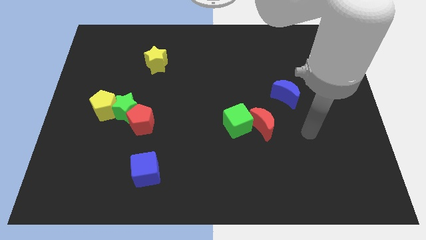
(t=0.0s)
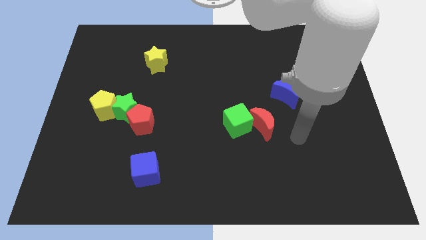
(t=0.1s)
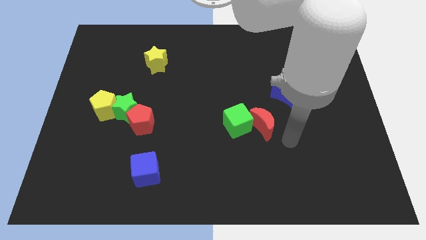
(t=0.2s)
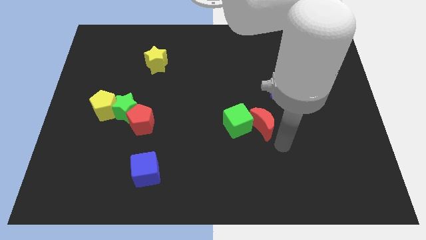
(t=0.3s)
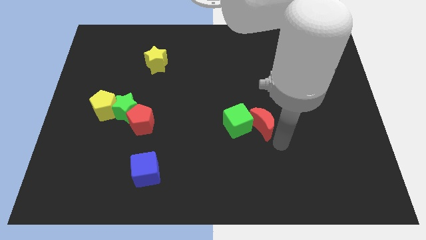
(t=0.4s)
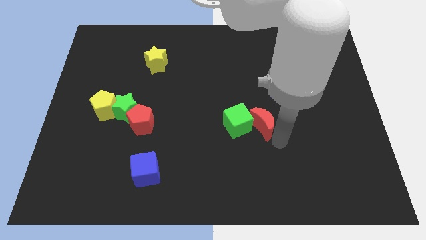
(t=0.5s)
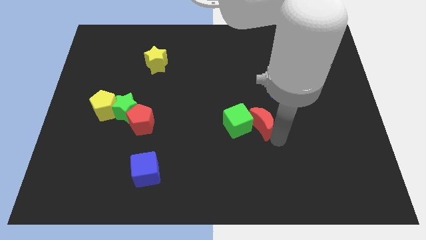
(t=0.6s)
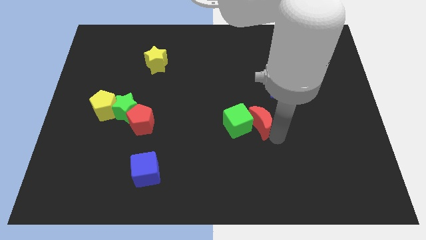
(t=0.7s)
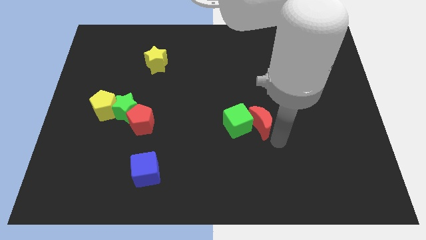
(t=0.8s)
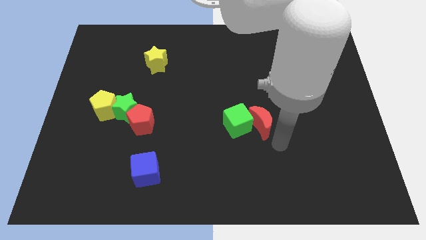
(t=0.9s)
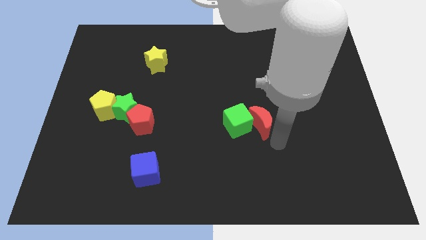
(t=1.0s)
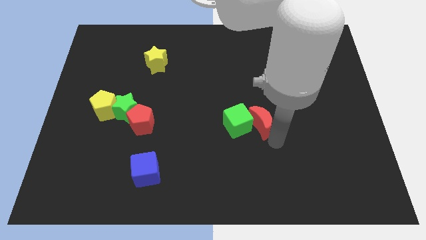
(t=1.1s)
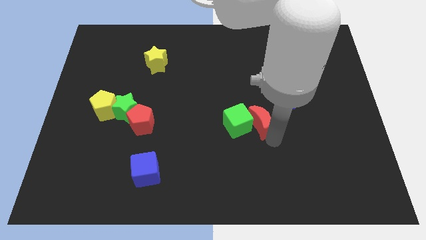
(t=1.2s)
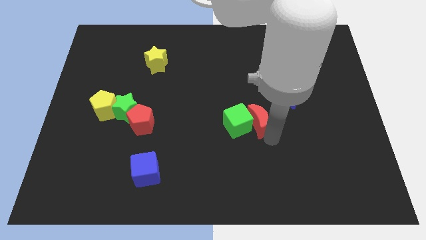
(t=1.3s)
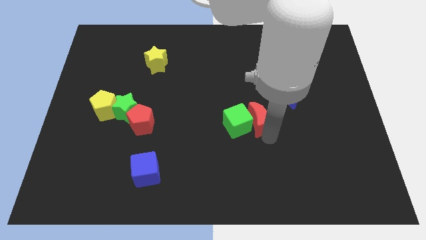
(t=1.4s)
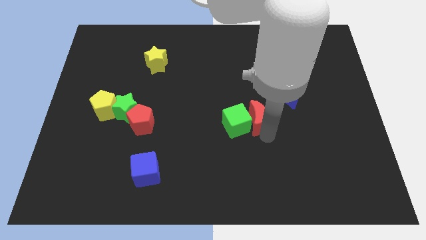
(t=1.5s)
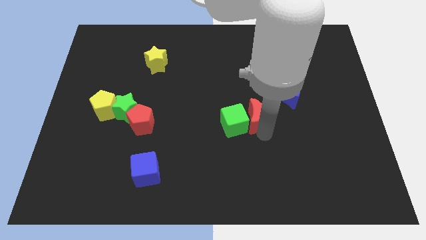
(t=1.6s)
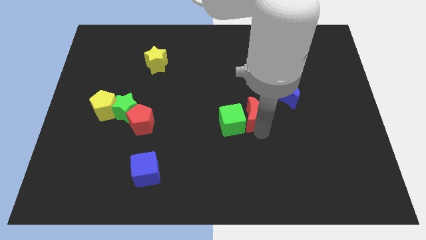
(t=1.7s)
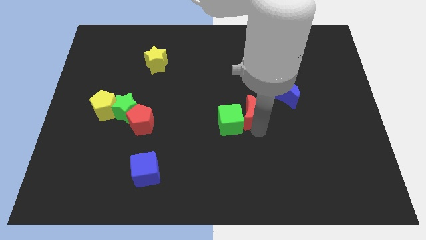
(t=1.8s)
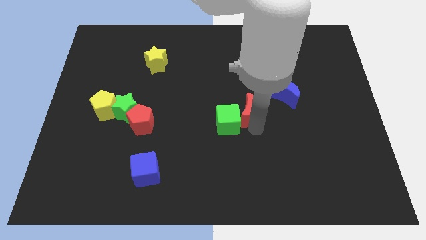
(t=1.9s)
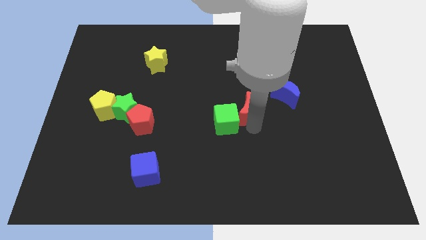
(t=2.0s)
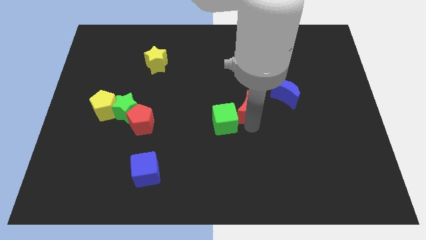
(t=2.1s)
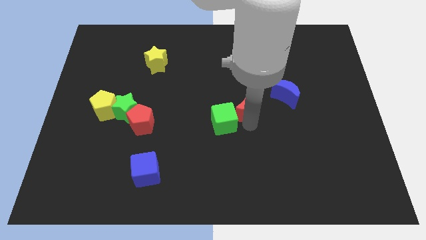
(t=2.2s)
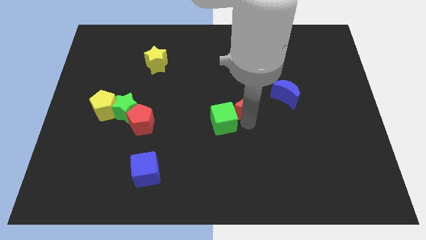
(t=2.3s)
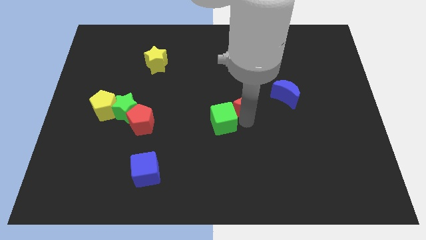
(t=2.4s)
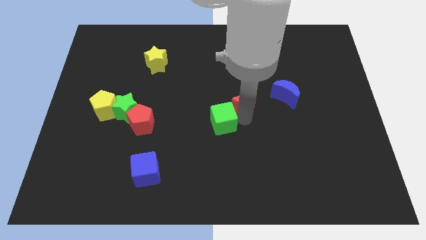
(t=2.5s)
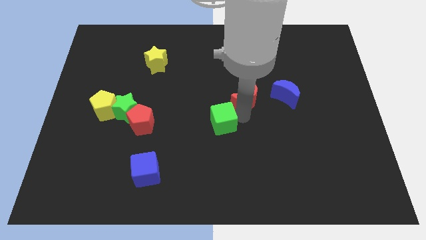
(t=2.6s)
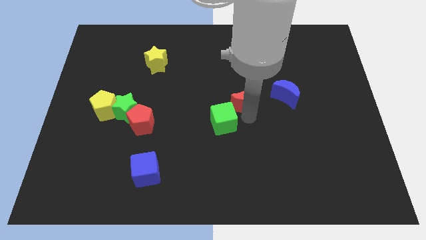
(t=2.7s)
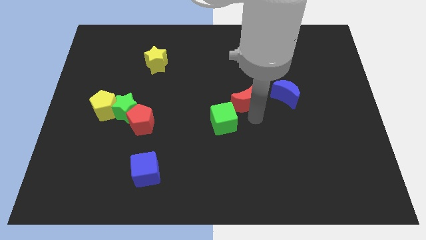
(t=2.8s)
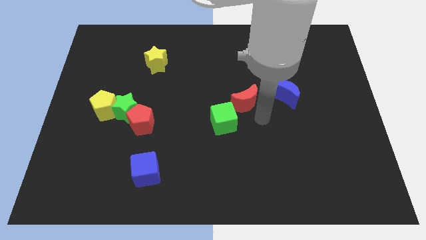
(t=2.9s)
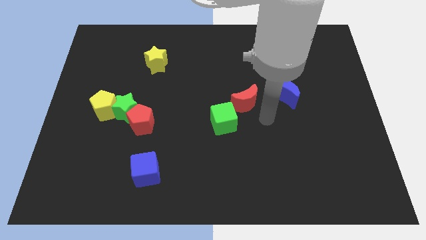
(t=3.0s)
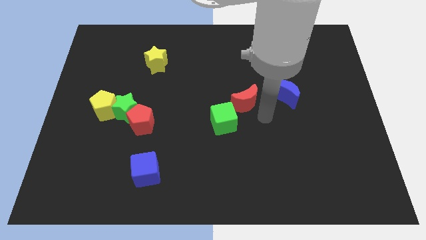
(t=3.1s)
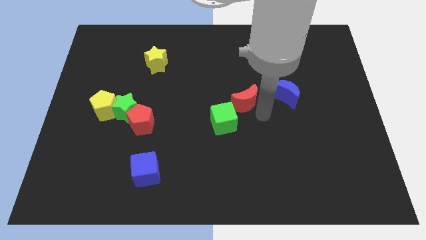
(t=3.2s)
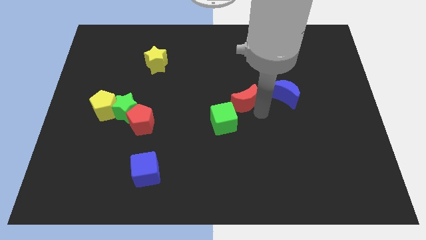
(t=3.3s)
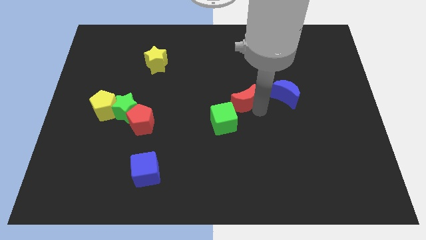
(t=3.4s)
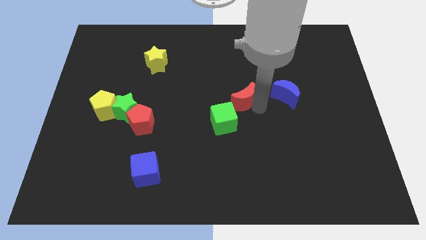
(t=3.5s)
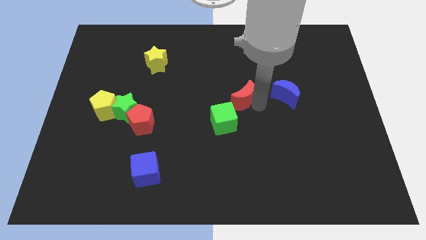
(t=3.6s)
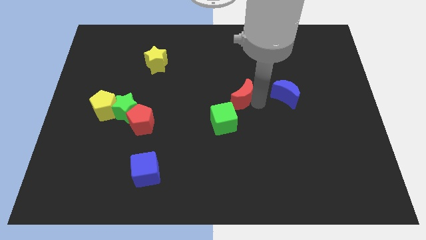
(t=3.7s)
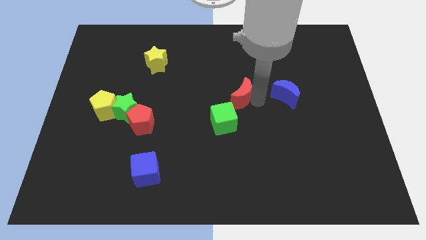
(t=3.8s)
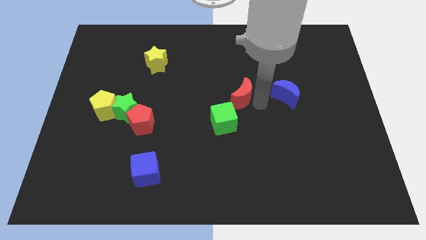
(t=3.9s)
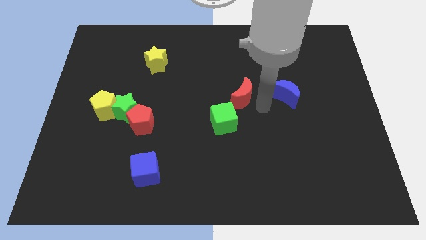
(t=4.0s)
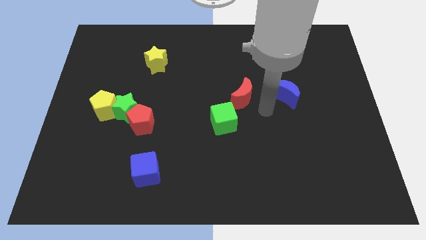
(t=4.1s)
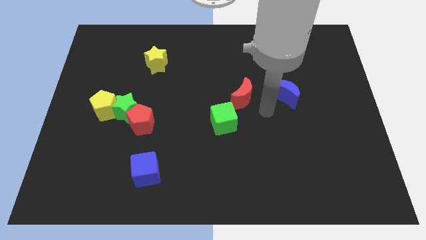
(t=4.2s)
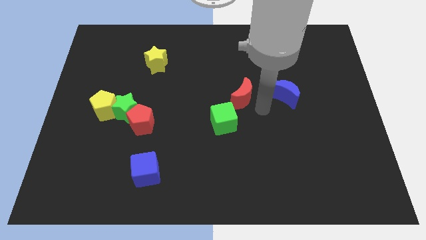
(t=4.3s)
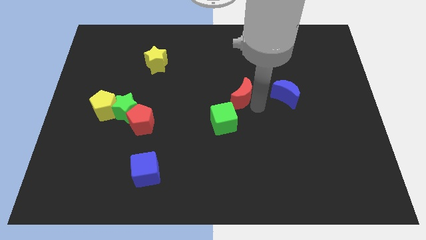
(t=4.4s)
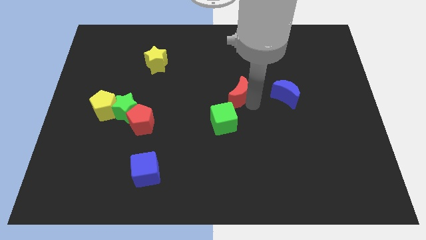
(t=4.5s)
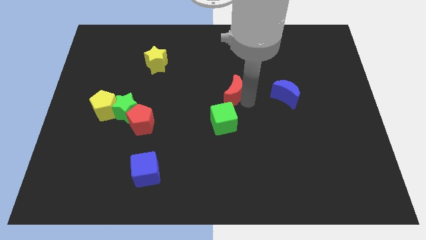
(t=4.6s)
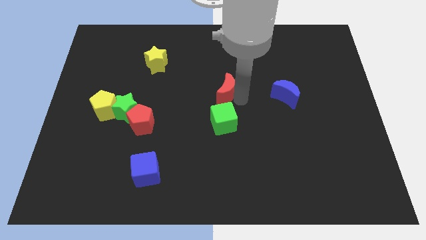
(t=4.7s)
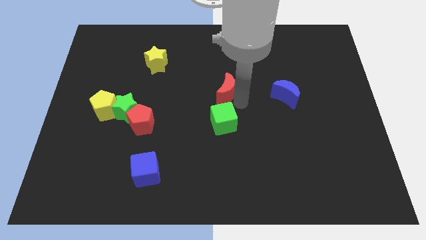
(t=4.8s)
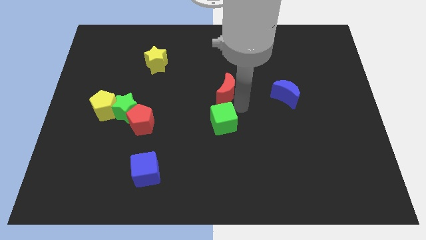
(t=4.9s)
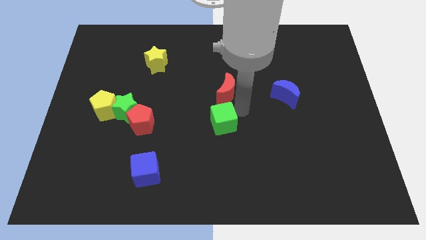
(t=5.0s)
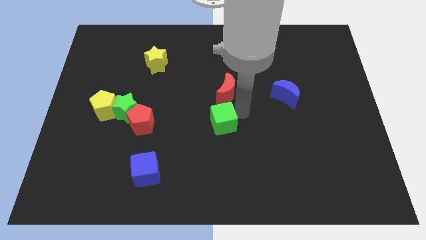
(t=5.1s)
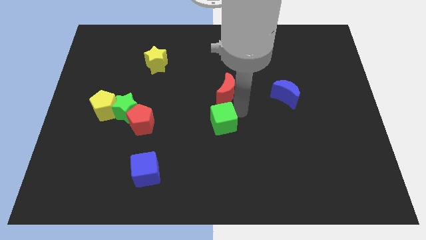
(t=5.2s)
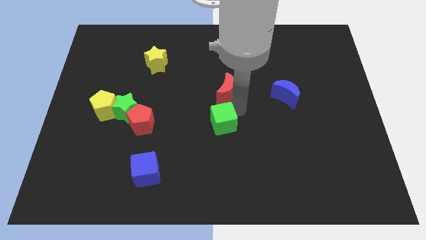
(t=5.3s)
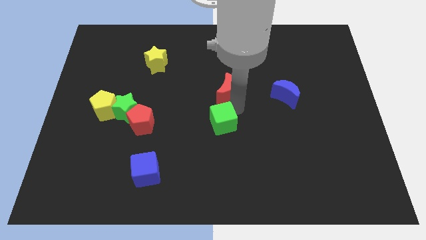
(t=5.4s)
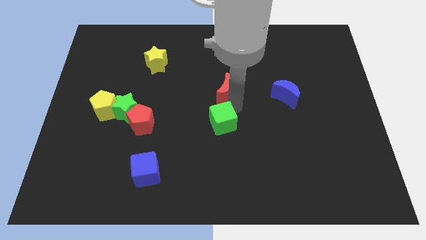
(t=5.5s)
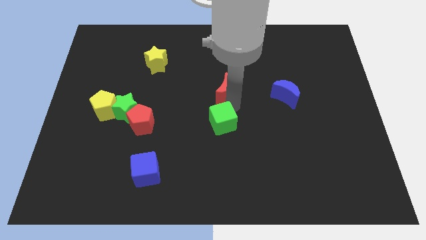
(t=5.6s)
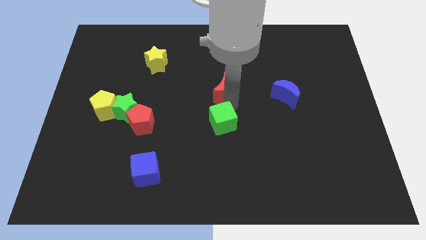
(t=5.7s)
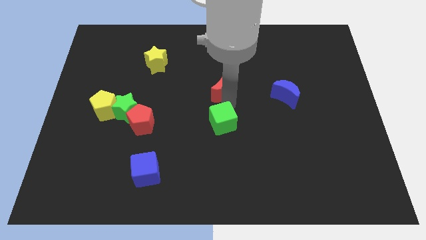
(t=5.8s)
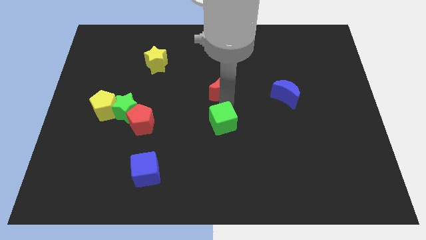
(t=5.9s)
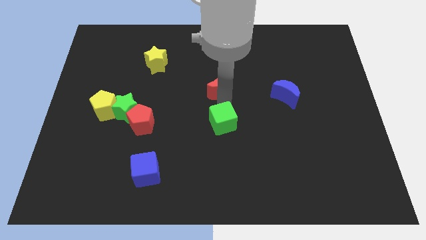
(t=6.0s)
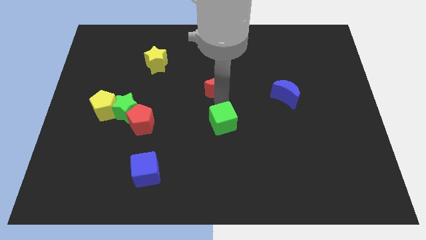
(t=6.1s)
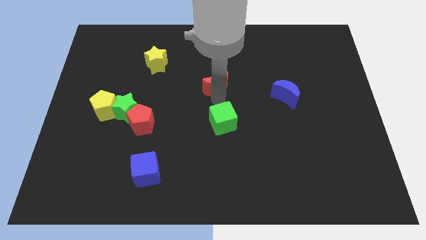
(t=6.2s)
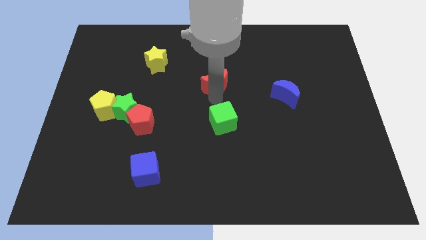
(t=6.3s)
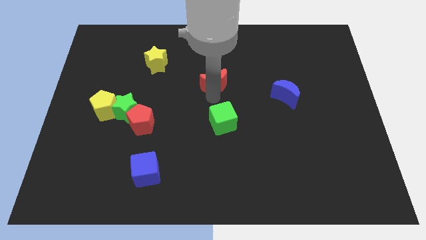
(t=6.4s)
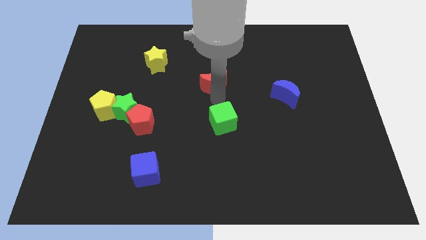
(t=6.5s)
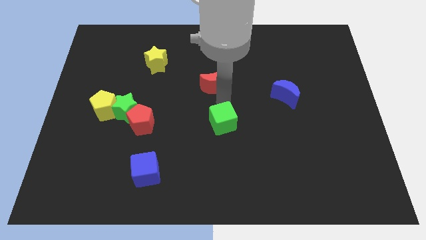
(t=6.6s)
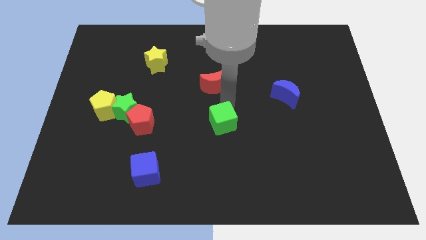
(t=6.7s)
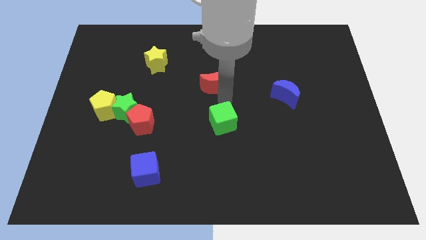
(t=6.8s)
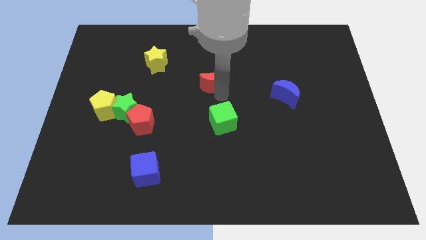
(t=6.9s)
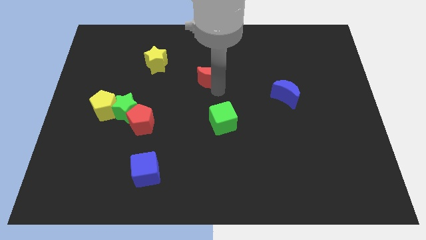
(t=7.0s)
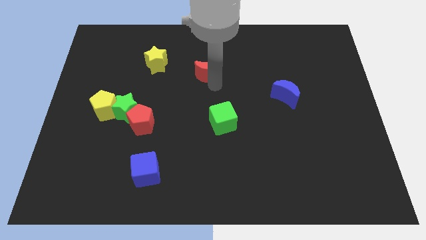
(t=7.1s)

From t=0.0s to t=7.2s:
move the red moon diagonally upwards and left

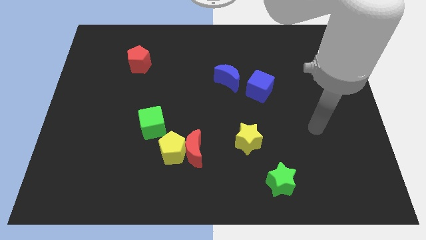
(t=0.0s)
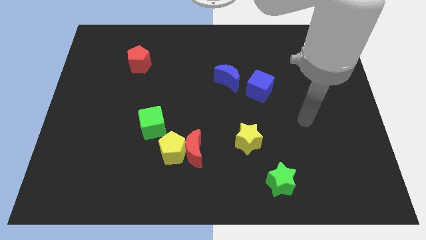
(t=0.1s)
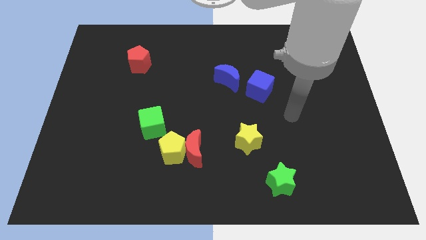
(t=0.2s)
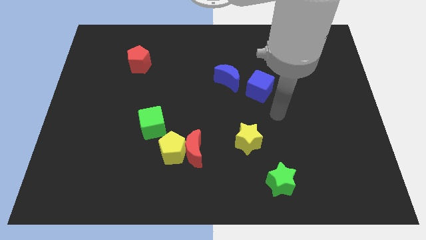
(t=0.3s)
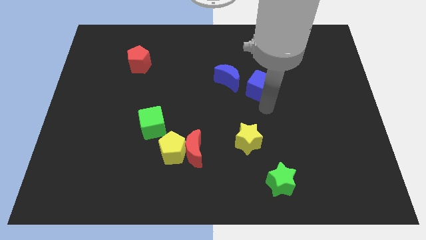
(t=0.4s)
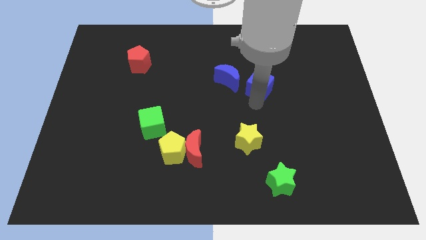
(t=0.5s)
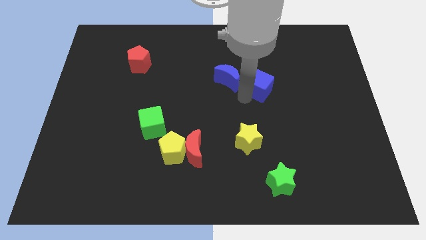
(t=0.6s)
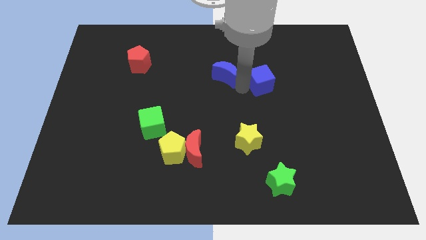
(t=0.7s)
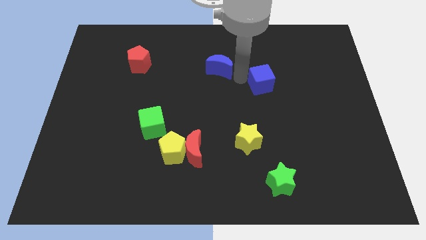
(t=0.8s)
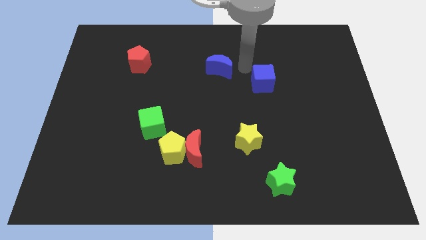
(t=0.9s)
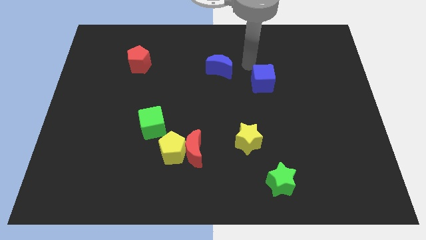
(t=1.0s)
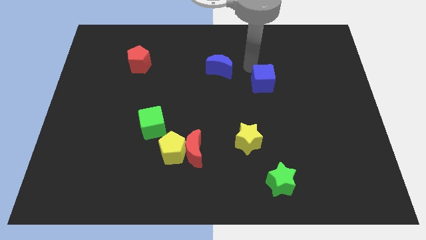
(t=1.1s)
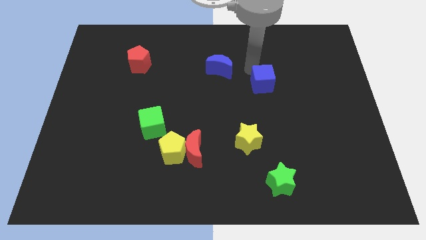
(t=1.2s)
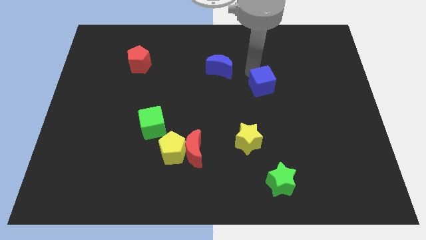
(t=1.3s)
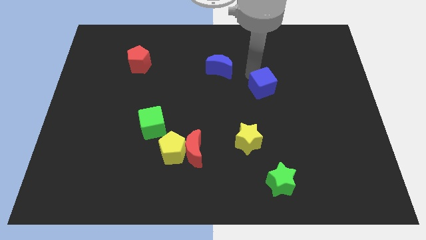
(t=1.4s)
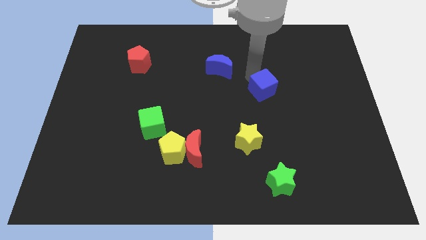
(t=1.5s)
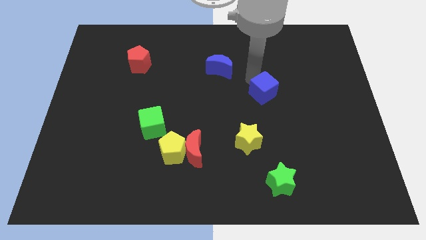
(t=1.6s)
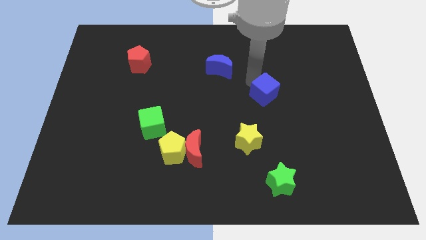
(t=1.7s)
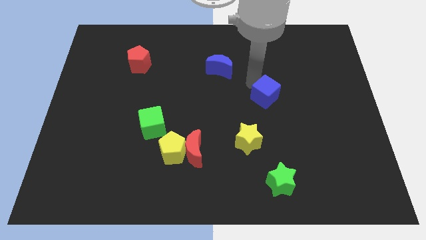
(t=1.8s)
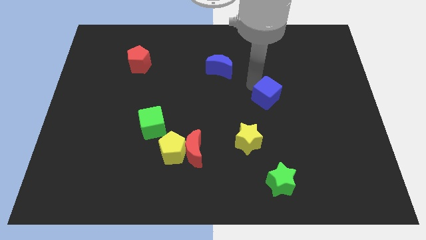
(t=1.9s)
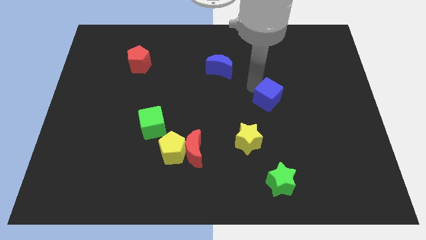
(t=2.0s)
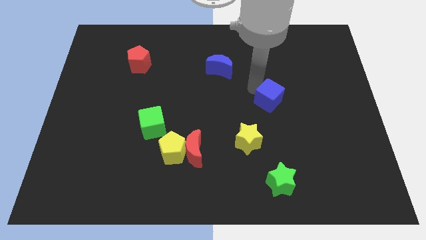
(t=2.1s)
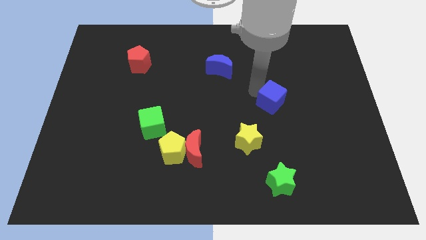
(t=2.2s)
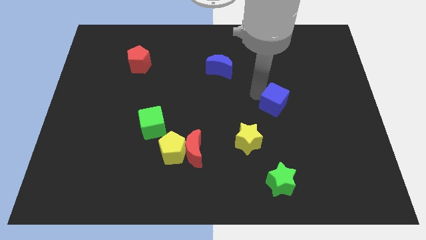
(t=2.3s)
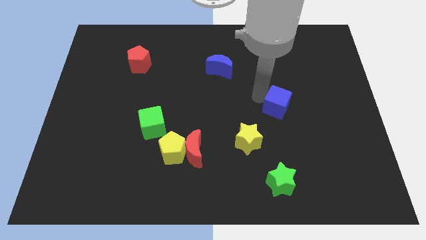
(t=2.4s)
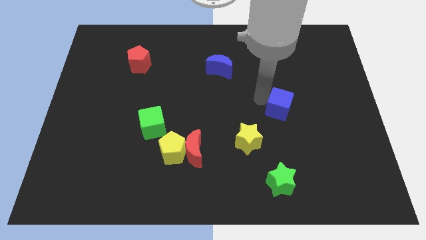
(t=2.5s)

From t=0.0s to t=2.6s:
move the blue cube downwards and then to the right a little bit
